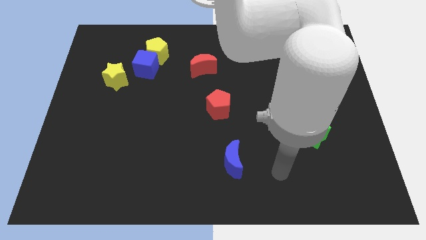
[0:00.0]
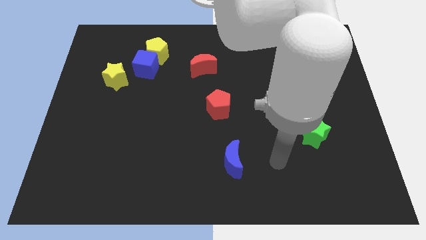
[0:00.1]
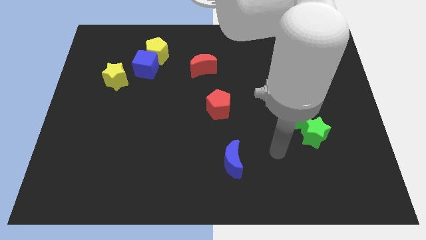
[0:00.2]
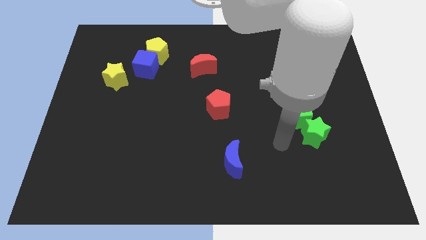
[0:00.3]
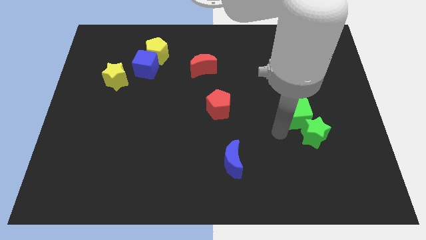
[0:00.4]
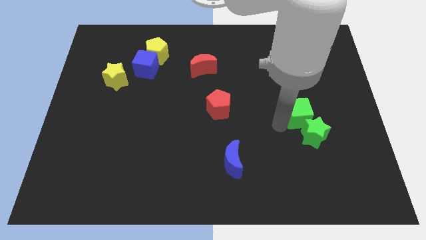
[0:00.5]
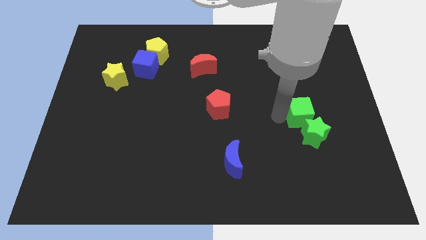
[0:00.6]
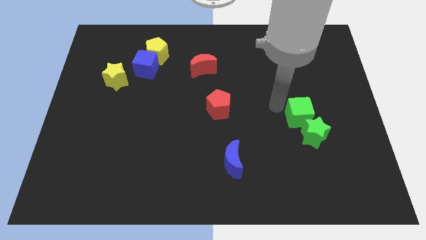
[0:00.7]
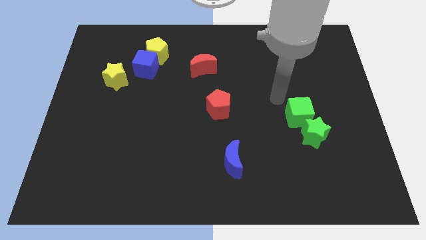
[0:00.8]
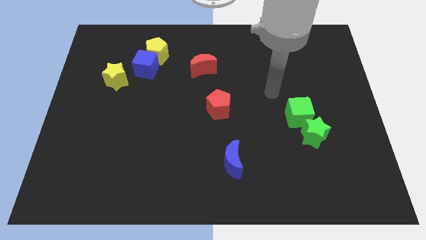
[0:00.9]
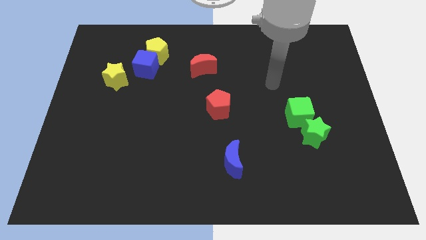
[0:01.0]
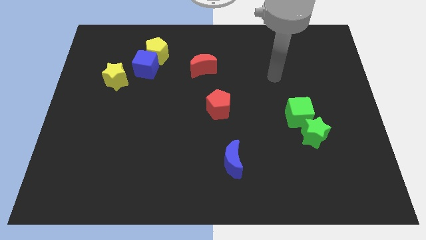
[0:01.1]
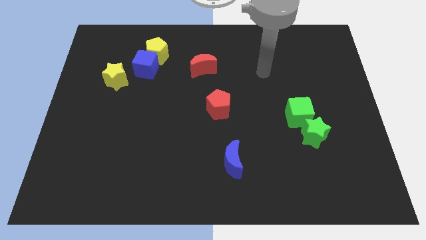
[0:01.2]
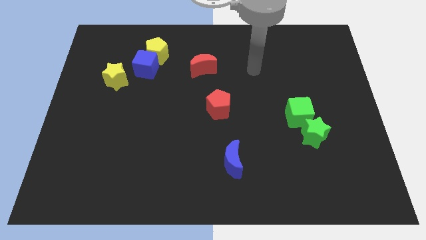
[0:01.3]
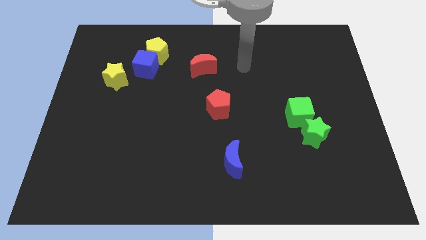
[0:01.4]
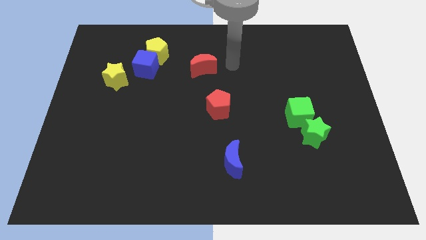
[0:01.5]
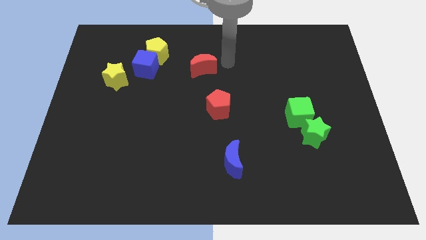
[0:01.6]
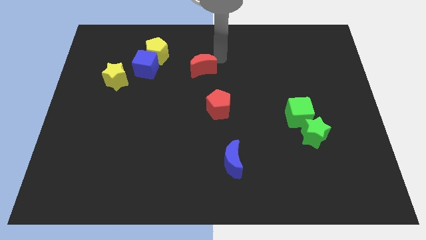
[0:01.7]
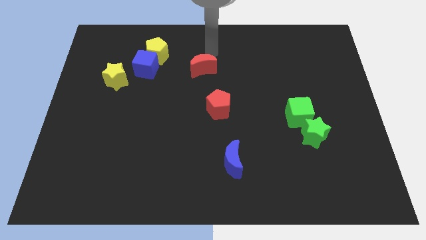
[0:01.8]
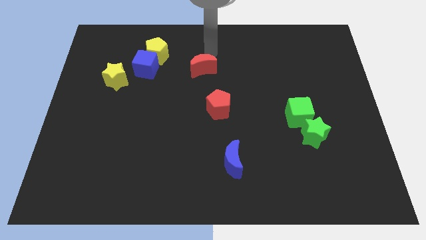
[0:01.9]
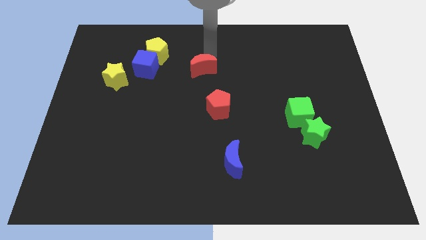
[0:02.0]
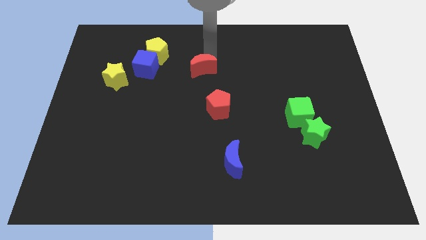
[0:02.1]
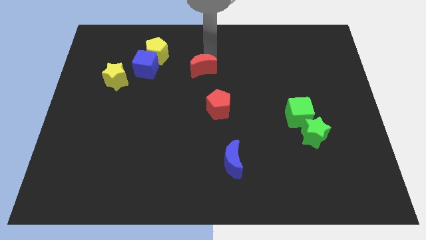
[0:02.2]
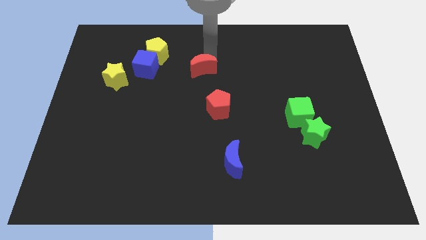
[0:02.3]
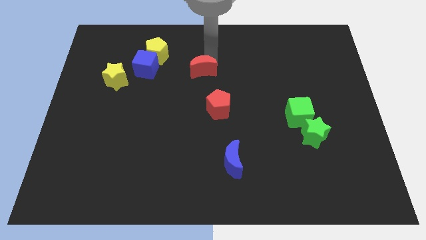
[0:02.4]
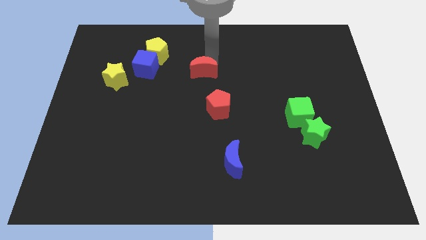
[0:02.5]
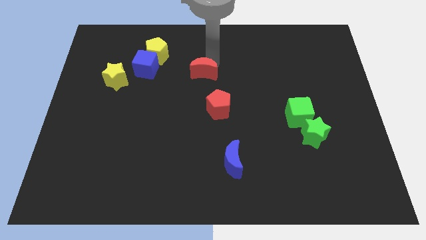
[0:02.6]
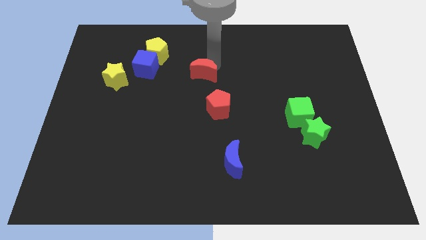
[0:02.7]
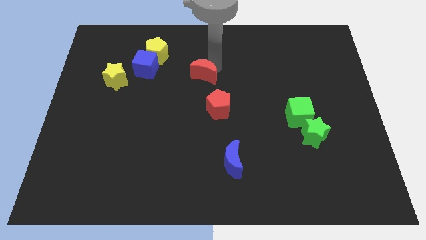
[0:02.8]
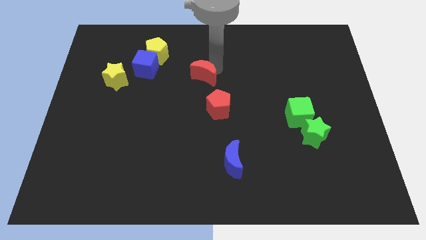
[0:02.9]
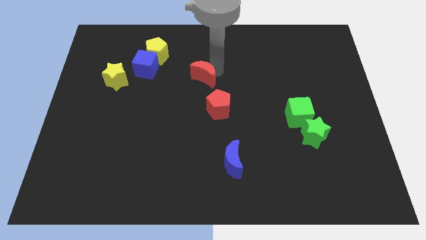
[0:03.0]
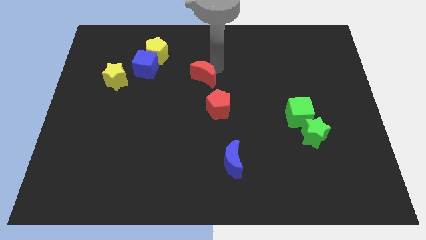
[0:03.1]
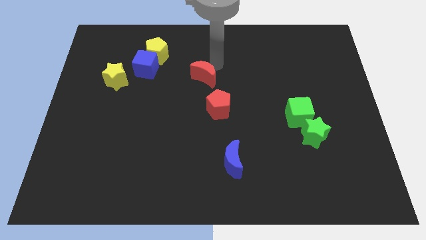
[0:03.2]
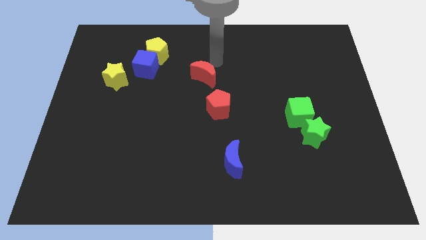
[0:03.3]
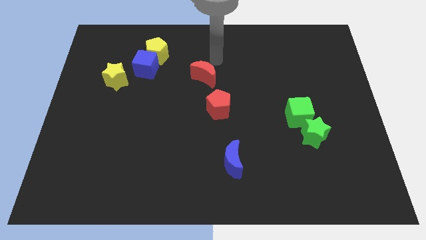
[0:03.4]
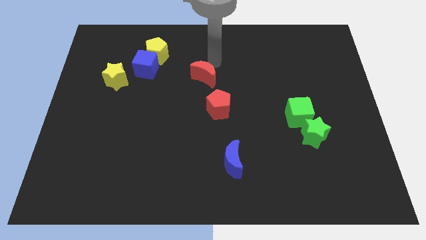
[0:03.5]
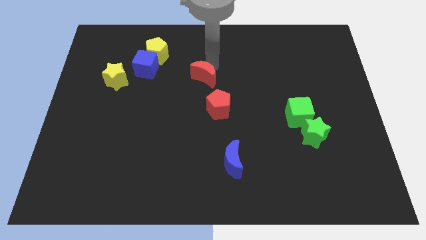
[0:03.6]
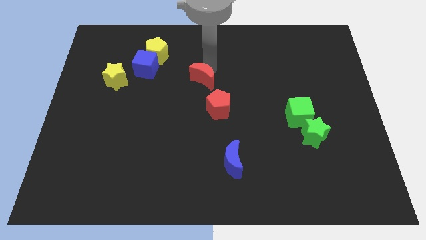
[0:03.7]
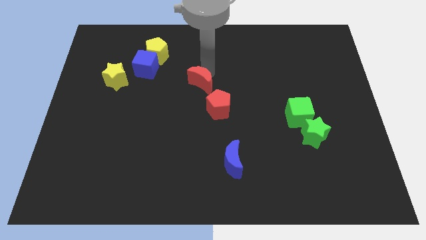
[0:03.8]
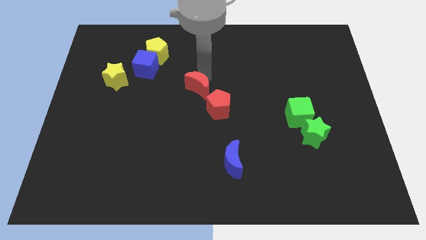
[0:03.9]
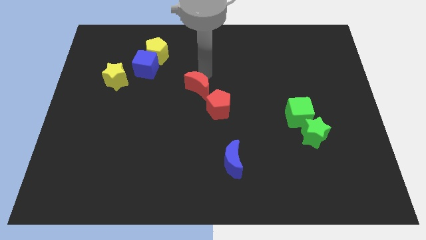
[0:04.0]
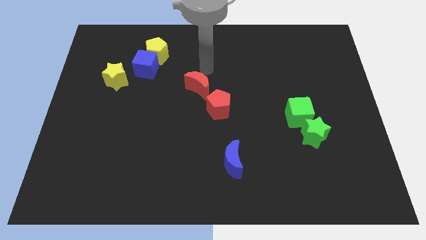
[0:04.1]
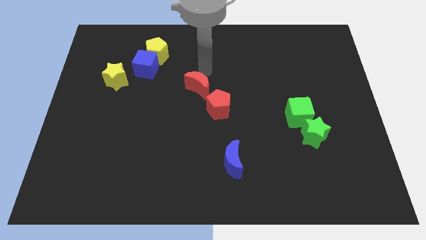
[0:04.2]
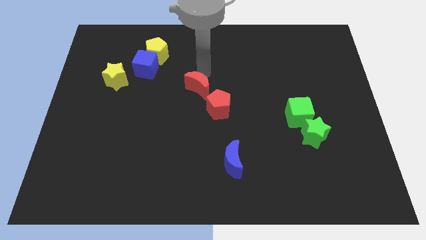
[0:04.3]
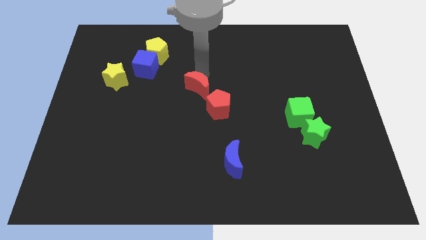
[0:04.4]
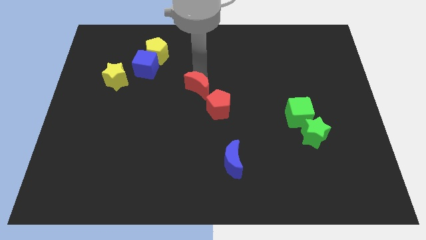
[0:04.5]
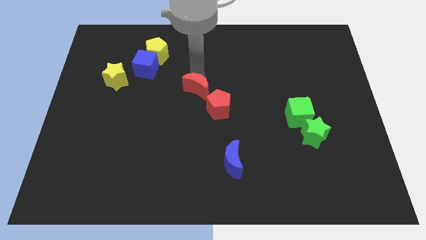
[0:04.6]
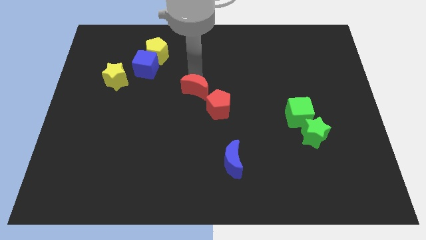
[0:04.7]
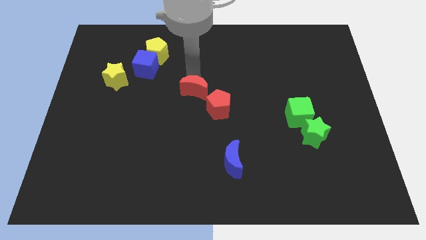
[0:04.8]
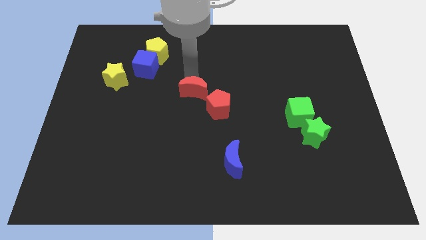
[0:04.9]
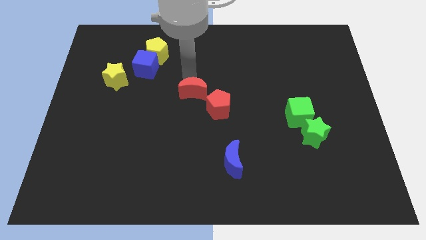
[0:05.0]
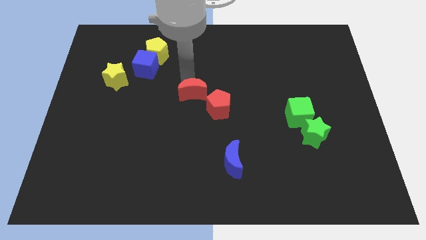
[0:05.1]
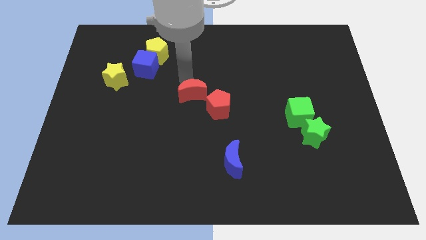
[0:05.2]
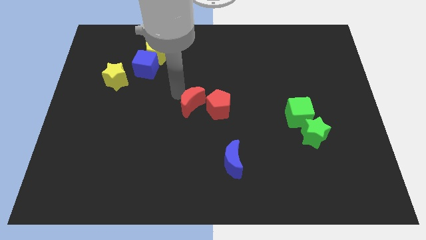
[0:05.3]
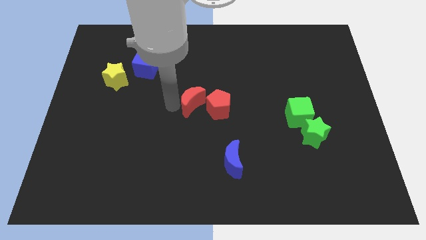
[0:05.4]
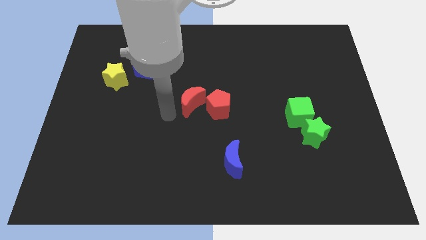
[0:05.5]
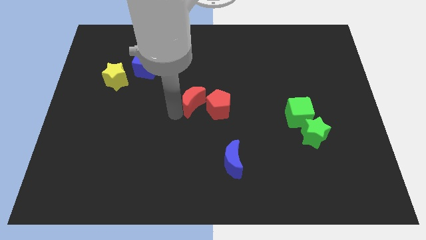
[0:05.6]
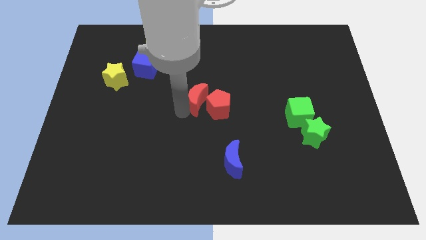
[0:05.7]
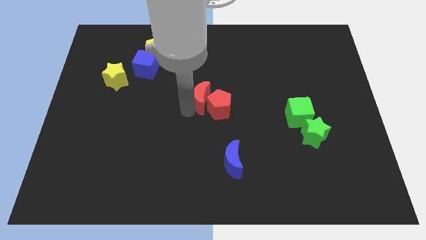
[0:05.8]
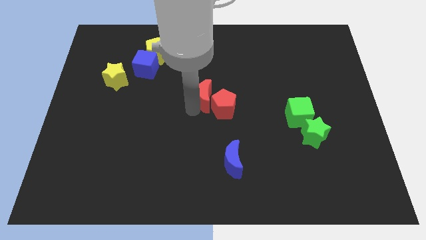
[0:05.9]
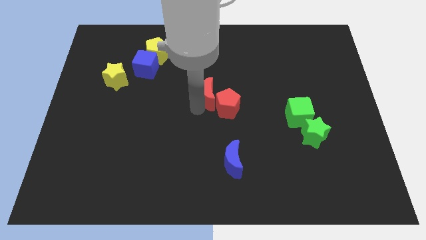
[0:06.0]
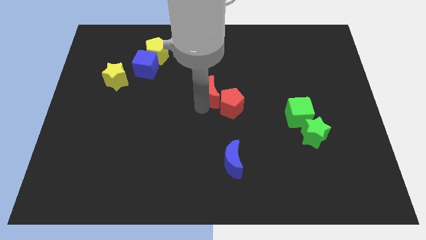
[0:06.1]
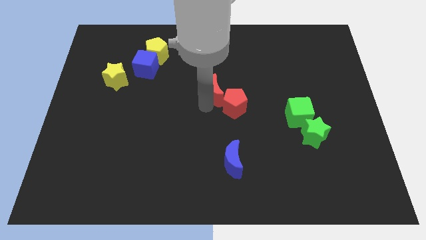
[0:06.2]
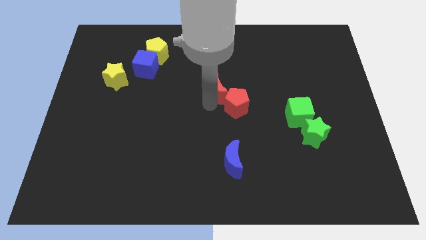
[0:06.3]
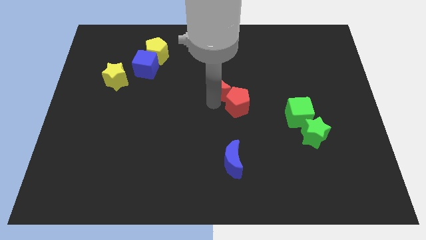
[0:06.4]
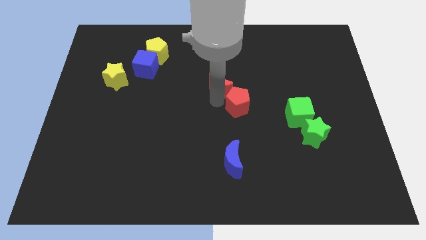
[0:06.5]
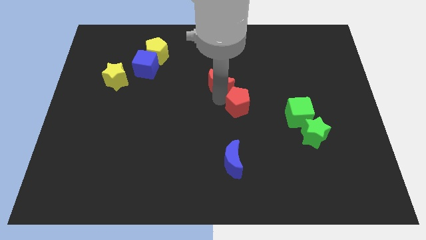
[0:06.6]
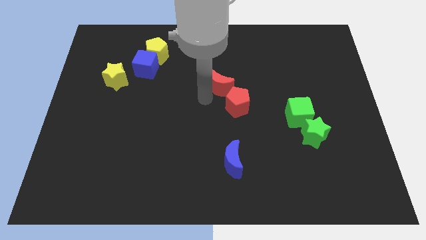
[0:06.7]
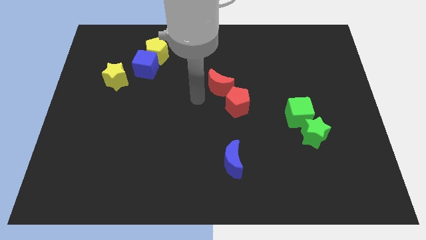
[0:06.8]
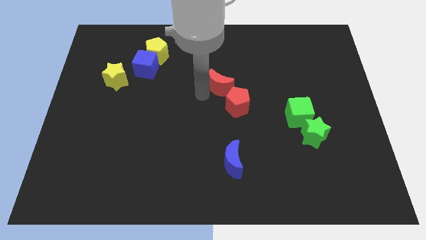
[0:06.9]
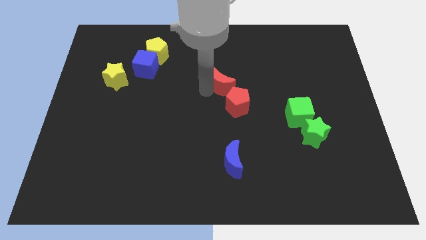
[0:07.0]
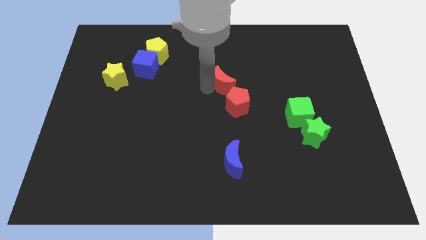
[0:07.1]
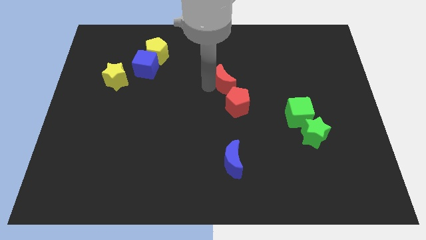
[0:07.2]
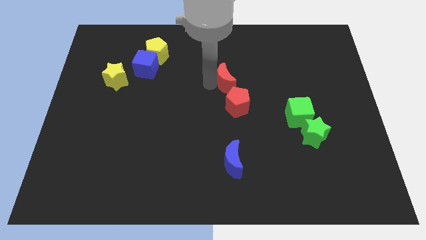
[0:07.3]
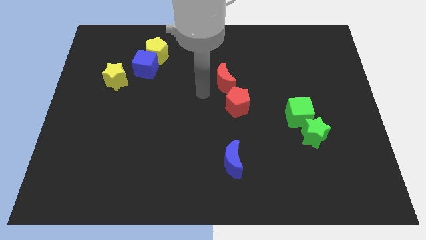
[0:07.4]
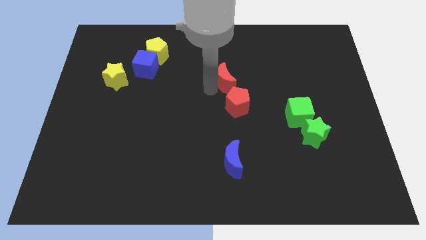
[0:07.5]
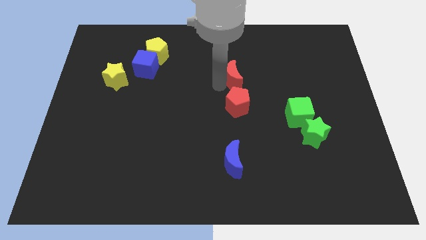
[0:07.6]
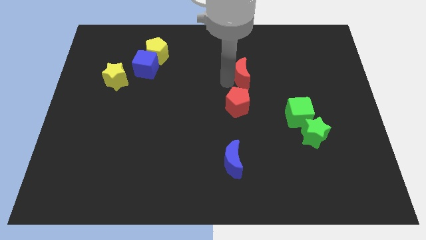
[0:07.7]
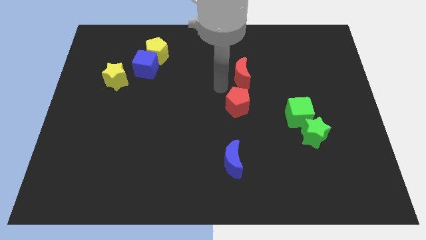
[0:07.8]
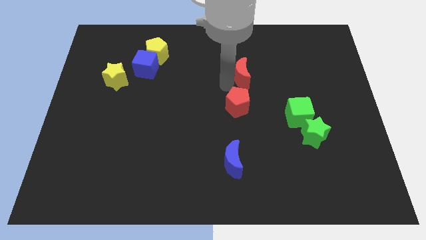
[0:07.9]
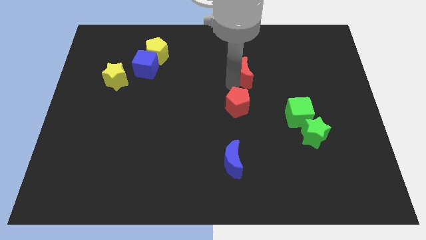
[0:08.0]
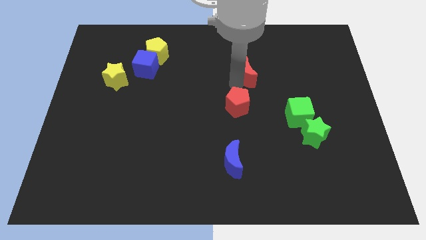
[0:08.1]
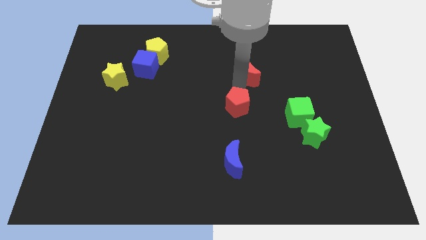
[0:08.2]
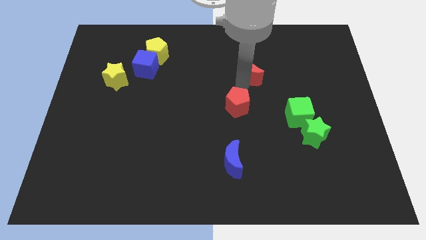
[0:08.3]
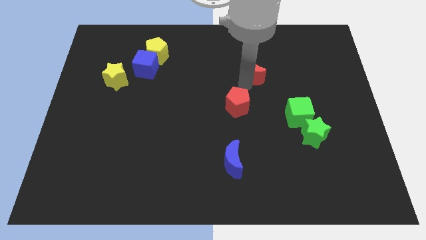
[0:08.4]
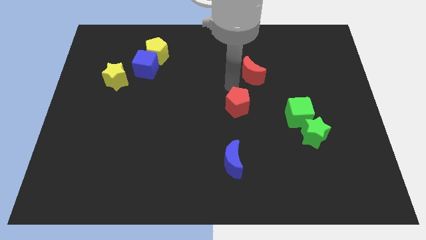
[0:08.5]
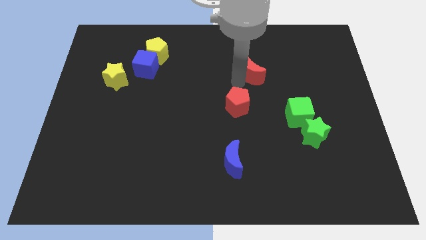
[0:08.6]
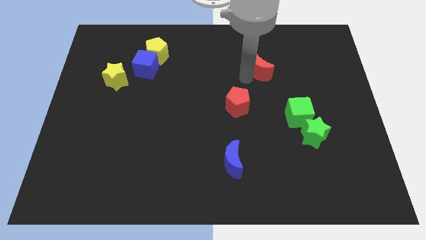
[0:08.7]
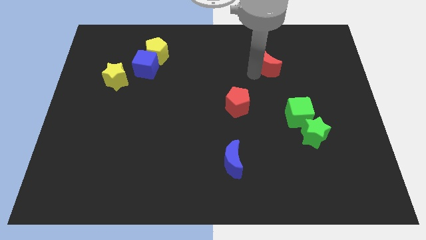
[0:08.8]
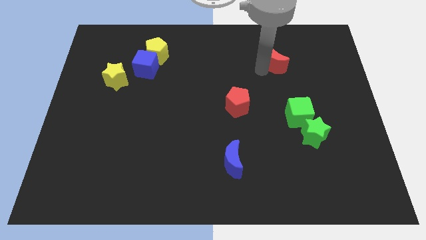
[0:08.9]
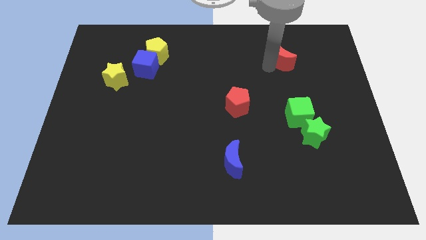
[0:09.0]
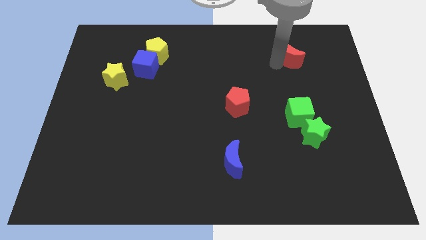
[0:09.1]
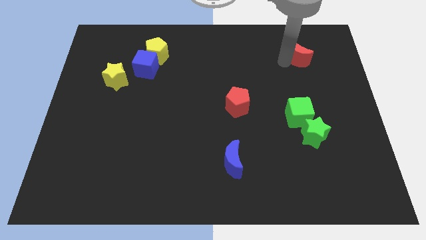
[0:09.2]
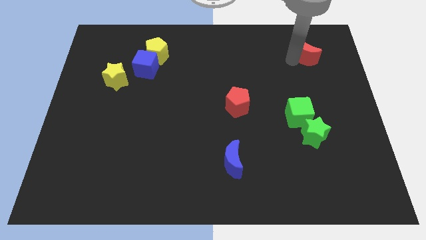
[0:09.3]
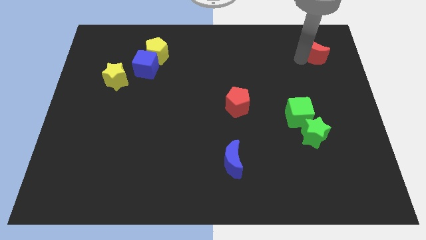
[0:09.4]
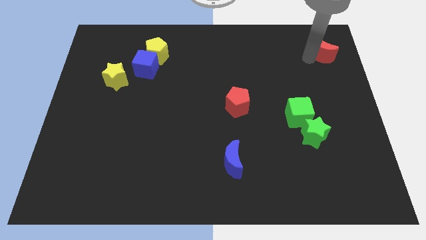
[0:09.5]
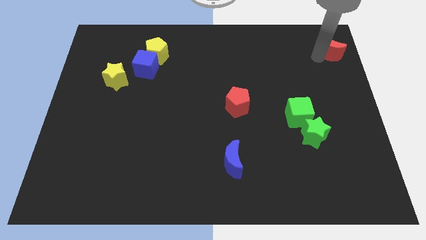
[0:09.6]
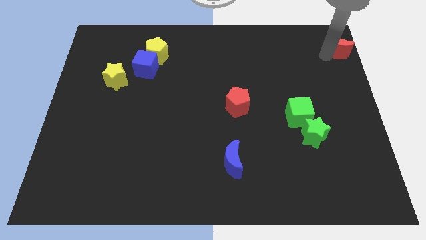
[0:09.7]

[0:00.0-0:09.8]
put the red moon to the upper right corner
